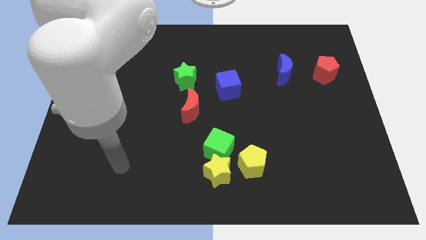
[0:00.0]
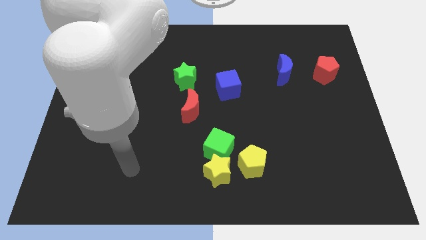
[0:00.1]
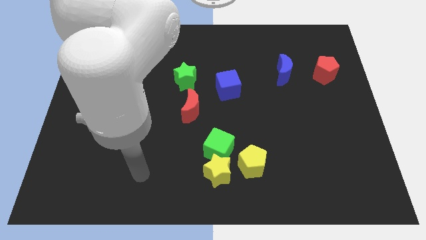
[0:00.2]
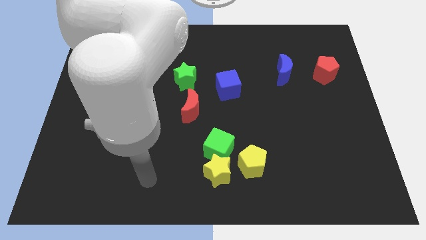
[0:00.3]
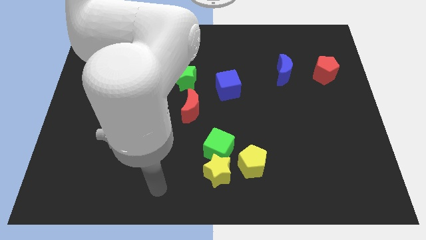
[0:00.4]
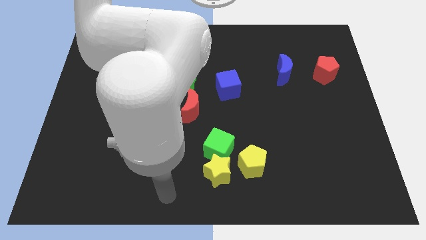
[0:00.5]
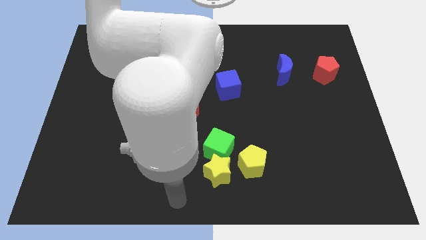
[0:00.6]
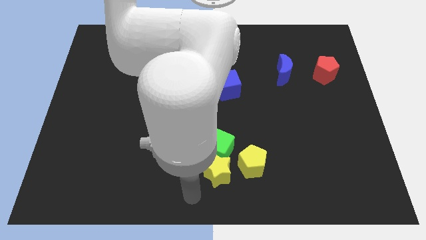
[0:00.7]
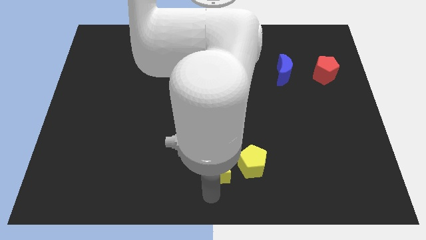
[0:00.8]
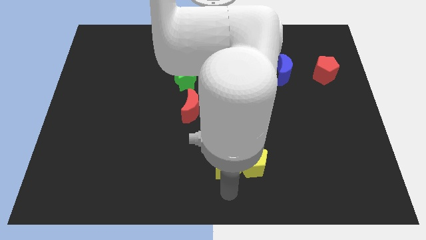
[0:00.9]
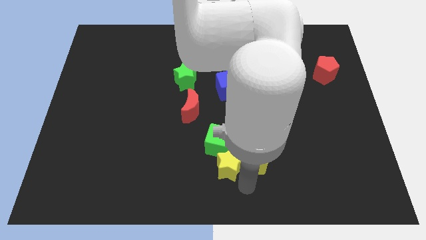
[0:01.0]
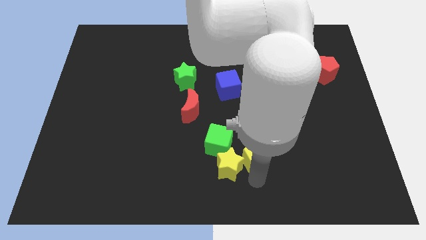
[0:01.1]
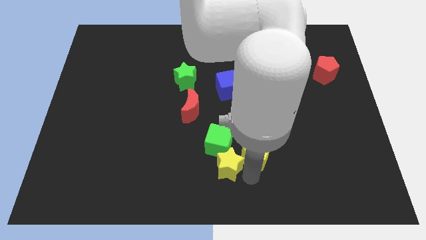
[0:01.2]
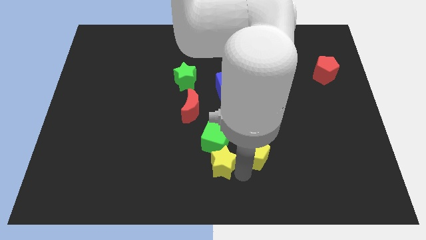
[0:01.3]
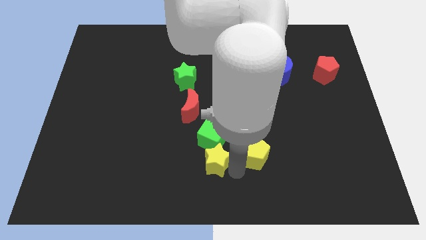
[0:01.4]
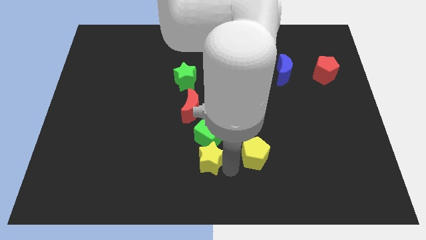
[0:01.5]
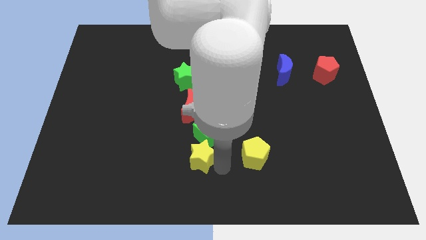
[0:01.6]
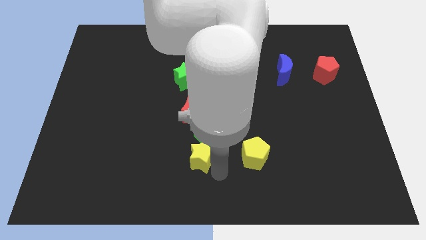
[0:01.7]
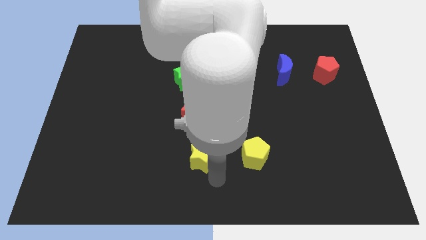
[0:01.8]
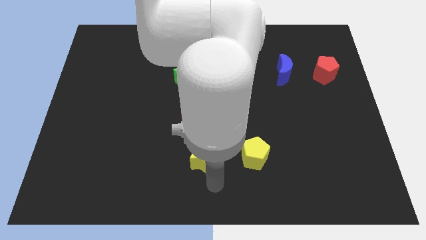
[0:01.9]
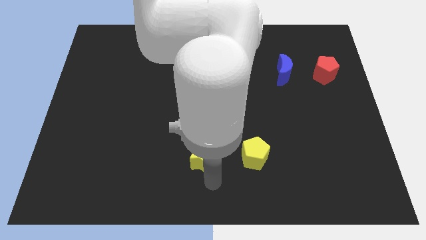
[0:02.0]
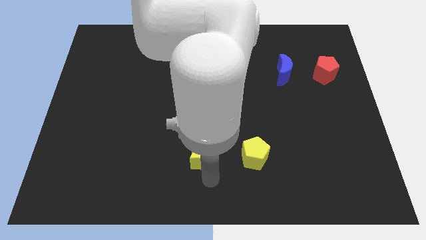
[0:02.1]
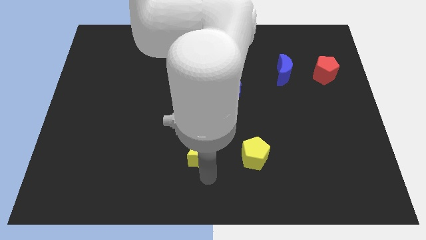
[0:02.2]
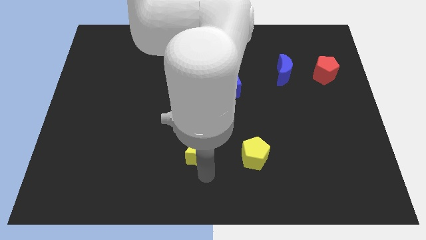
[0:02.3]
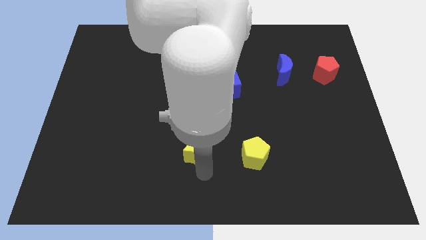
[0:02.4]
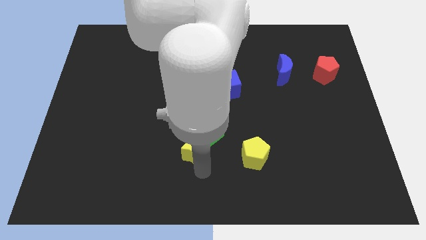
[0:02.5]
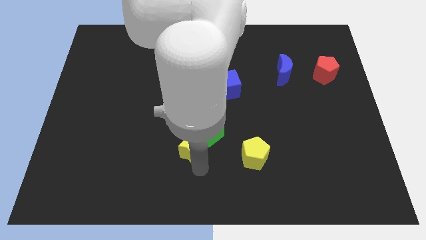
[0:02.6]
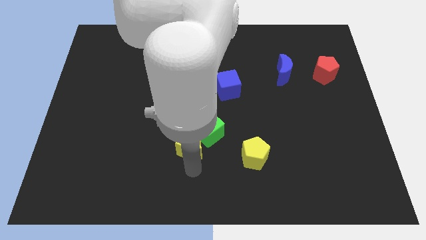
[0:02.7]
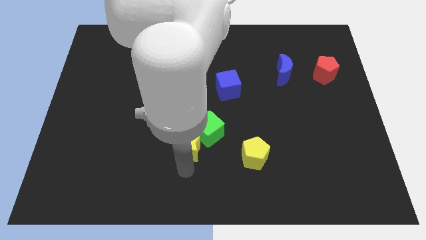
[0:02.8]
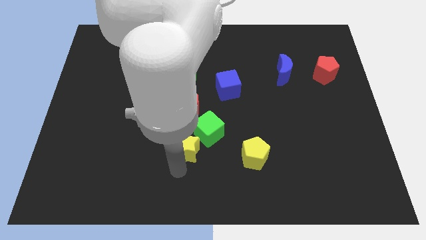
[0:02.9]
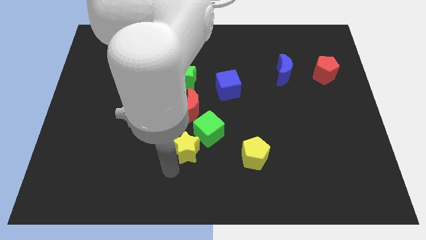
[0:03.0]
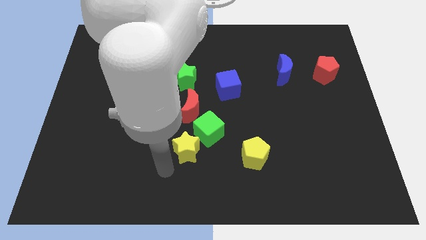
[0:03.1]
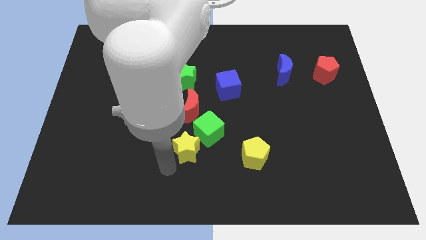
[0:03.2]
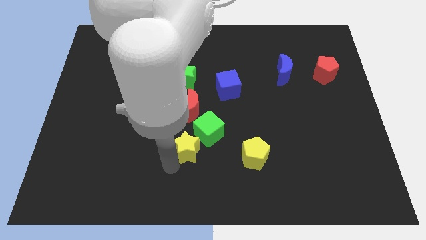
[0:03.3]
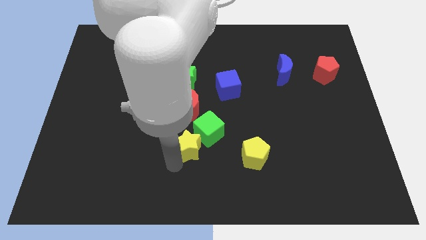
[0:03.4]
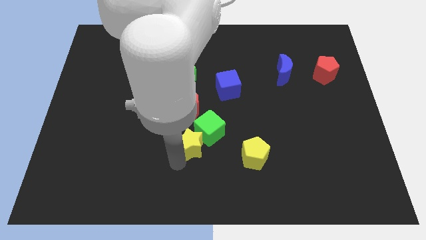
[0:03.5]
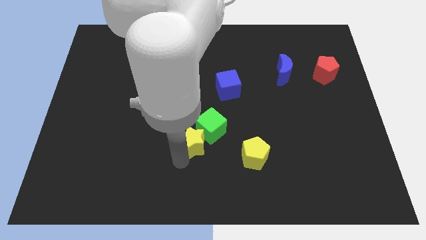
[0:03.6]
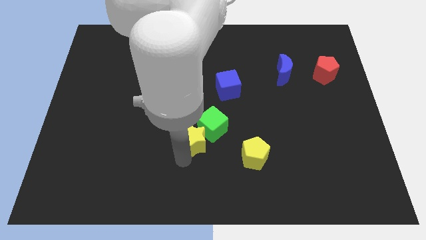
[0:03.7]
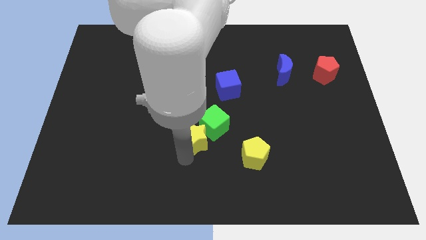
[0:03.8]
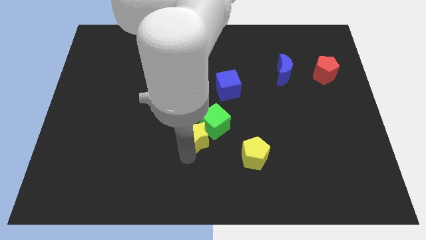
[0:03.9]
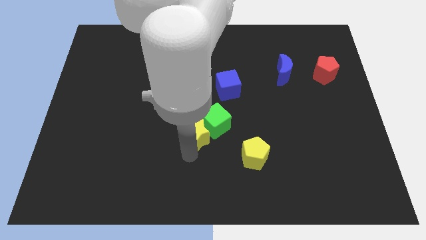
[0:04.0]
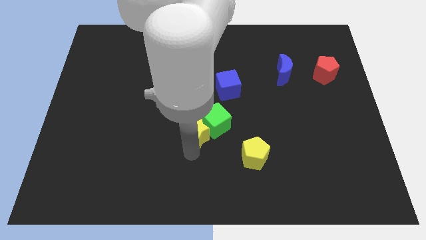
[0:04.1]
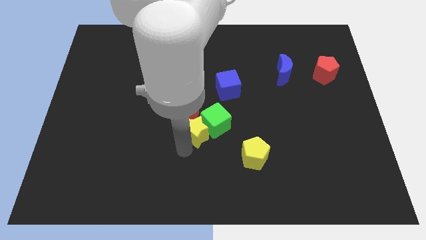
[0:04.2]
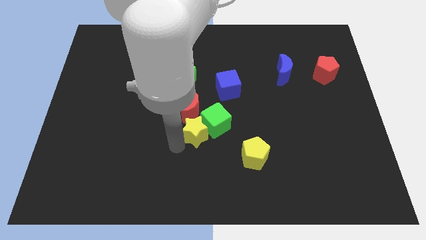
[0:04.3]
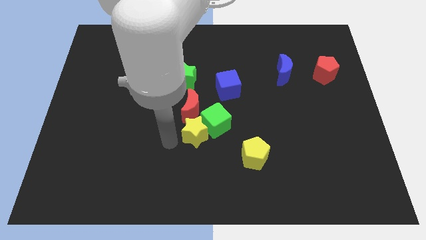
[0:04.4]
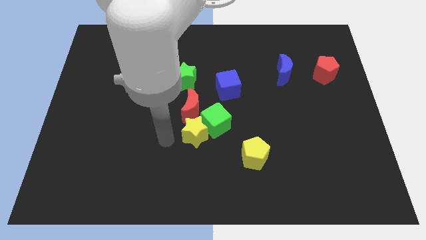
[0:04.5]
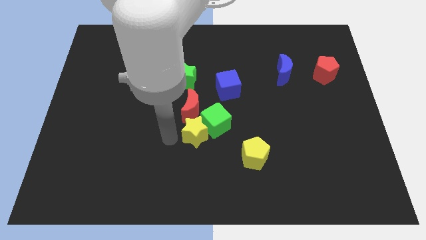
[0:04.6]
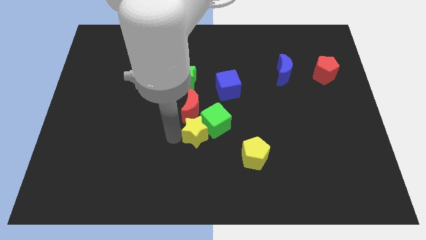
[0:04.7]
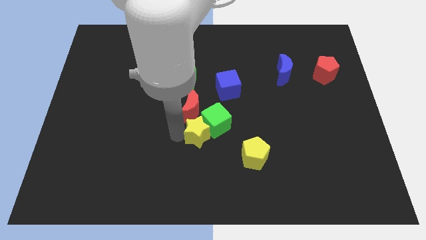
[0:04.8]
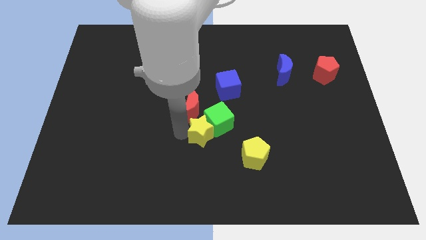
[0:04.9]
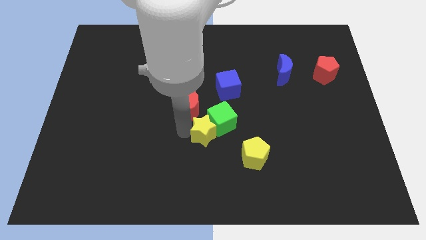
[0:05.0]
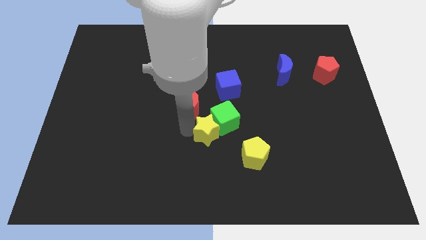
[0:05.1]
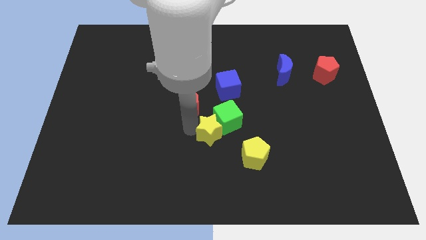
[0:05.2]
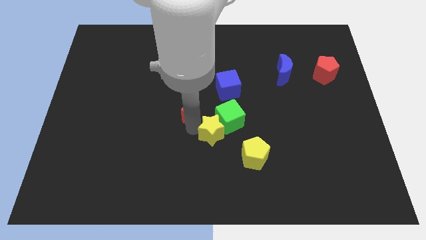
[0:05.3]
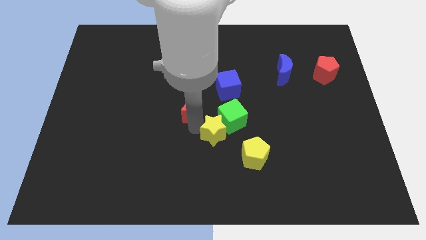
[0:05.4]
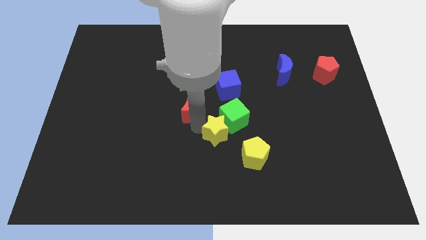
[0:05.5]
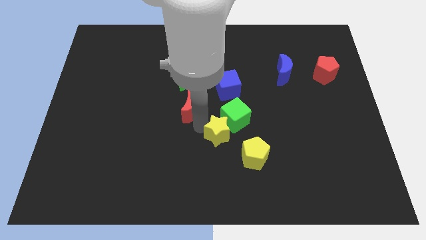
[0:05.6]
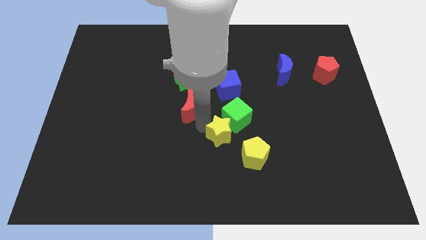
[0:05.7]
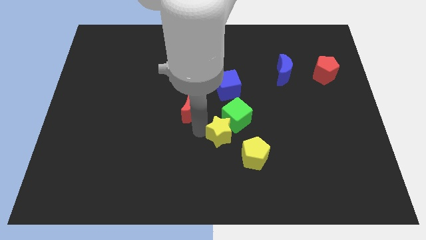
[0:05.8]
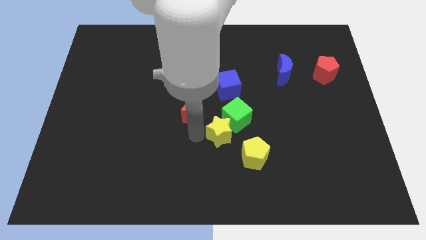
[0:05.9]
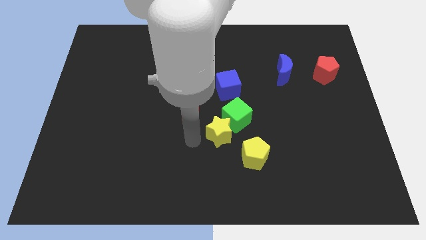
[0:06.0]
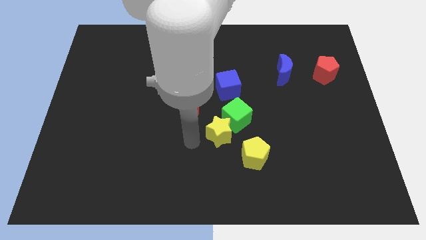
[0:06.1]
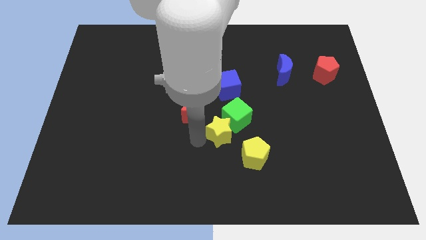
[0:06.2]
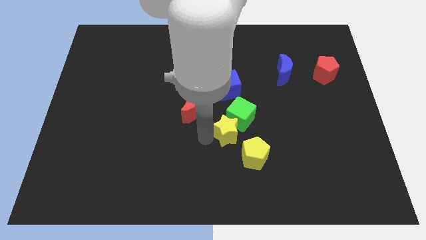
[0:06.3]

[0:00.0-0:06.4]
move the yellow star up and to the right a little bit

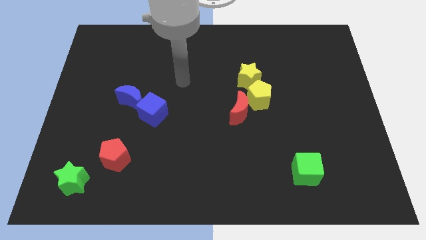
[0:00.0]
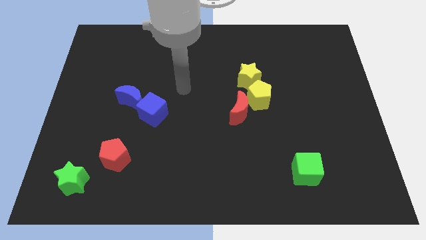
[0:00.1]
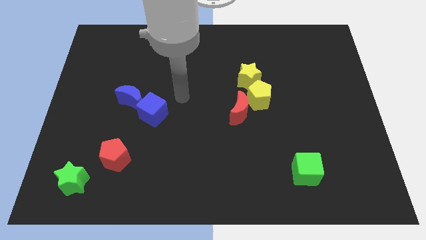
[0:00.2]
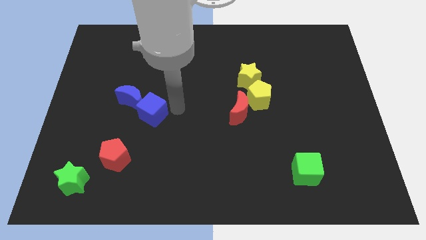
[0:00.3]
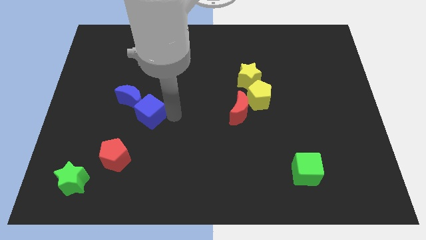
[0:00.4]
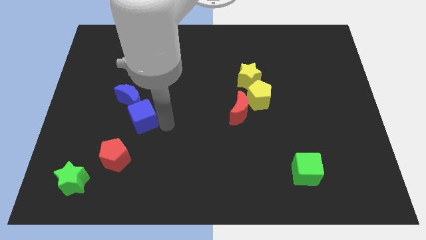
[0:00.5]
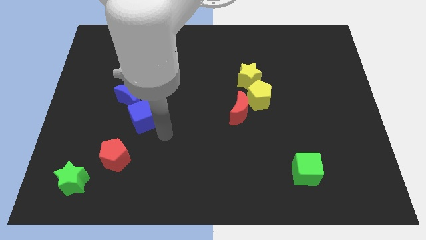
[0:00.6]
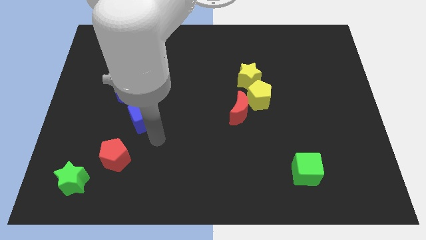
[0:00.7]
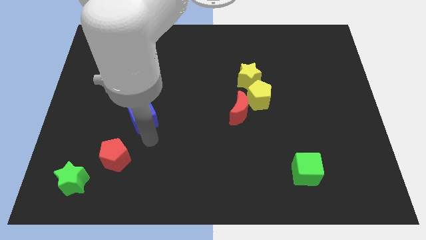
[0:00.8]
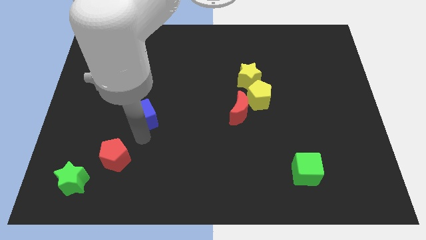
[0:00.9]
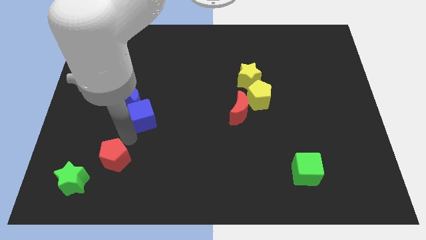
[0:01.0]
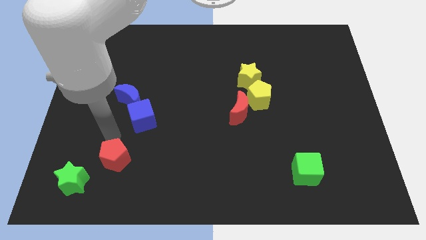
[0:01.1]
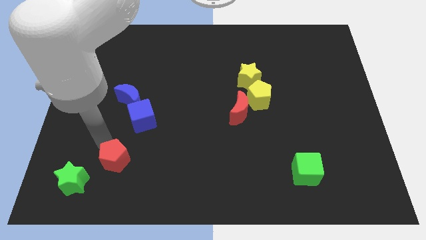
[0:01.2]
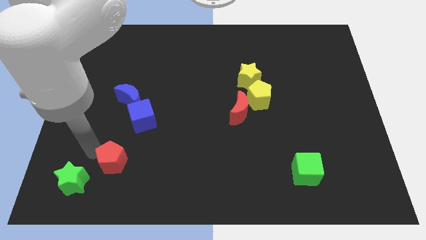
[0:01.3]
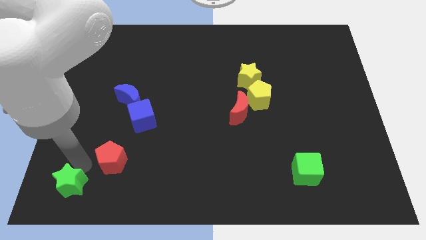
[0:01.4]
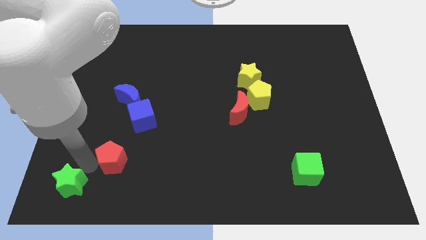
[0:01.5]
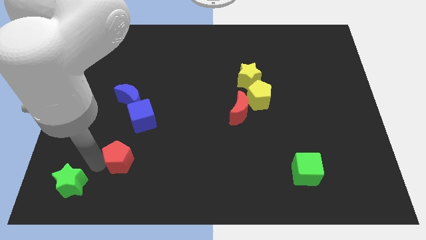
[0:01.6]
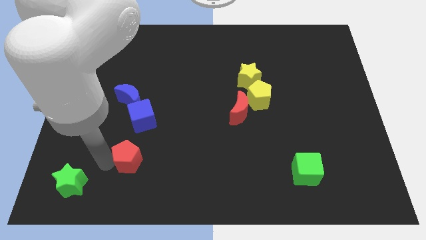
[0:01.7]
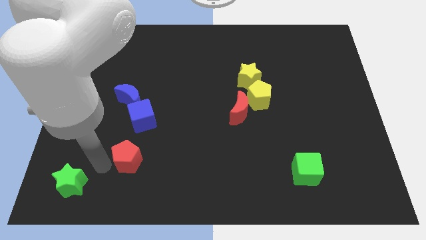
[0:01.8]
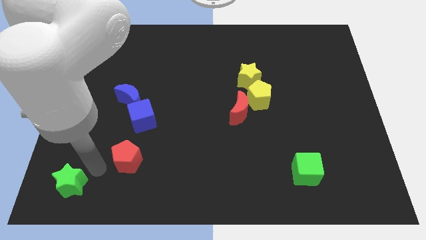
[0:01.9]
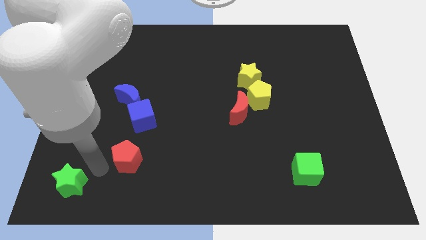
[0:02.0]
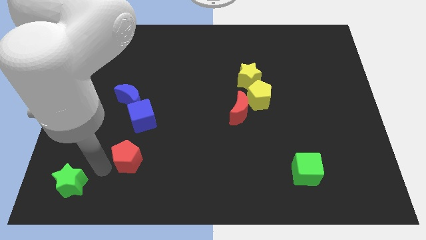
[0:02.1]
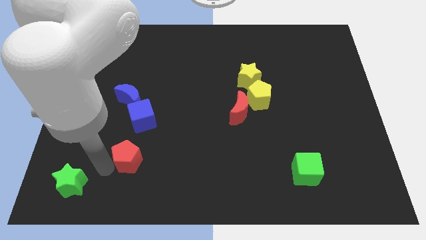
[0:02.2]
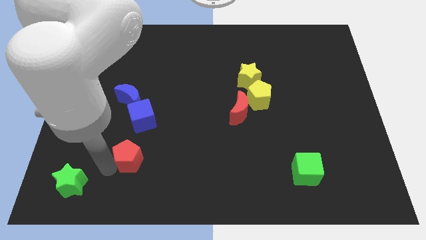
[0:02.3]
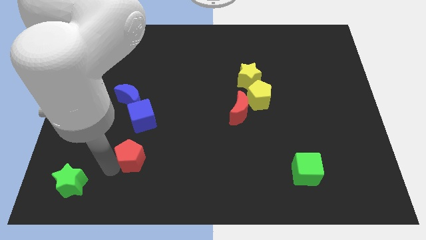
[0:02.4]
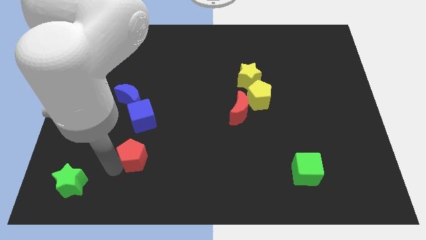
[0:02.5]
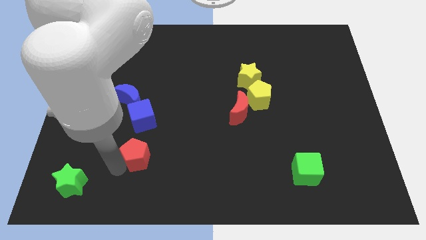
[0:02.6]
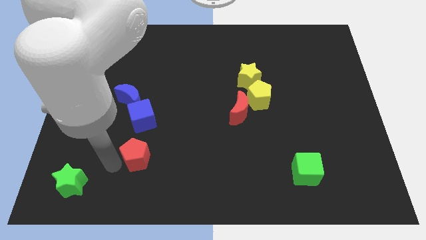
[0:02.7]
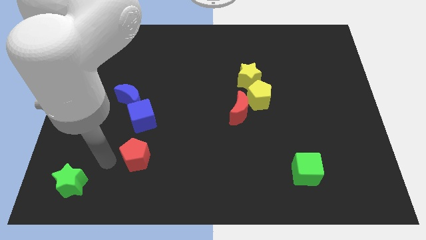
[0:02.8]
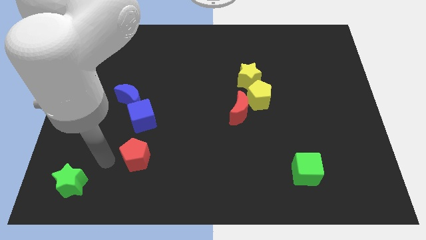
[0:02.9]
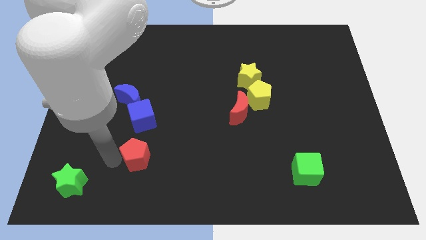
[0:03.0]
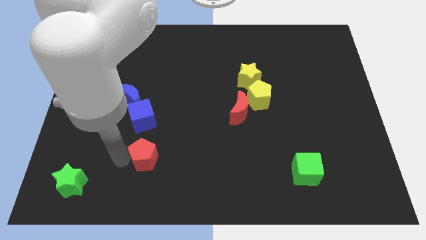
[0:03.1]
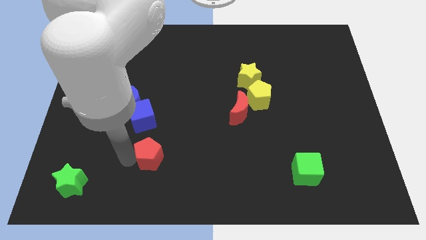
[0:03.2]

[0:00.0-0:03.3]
slightly push the red pentagon to the right
